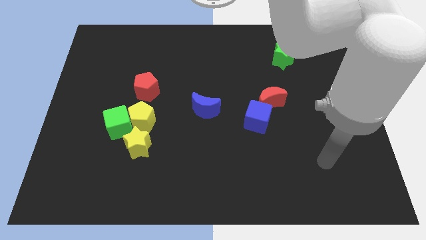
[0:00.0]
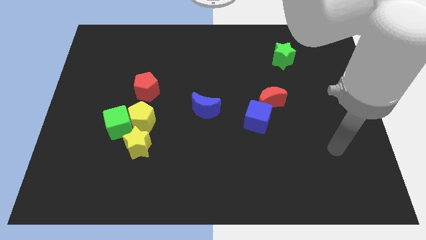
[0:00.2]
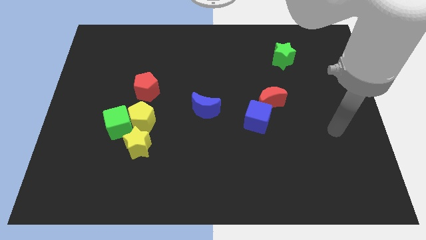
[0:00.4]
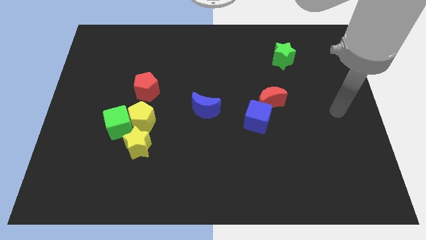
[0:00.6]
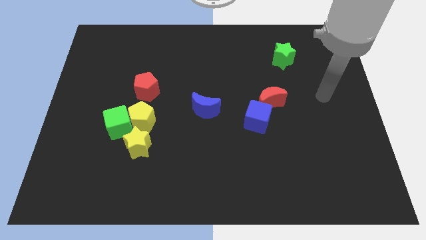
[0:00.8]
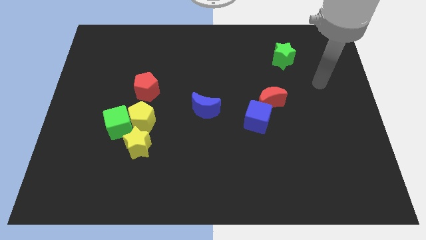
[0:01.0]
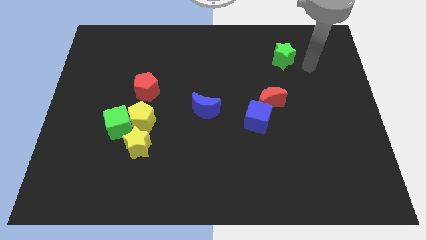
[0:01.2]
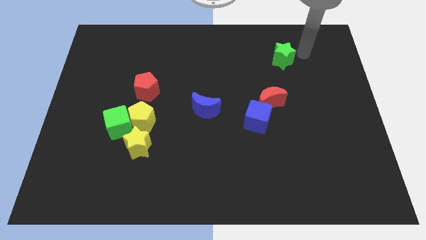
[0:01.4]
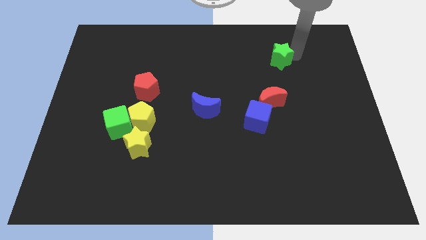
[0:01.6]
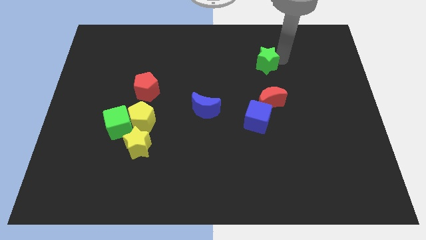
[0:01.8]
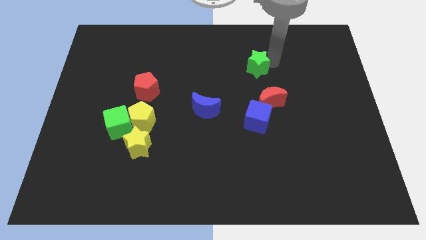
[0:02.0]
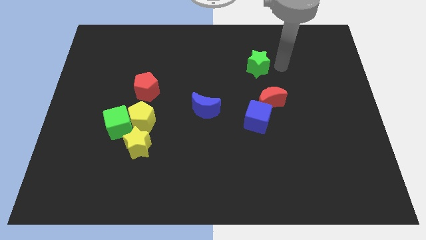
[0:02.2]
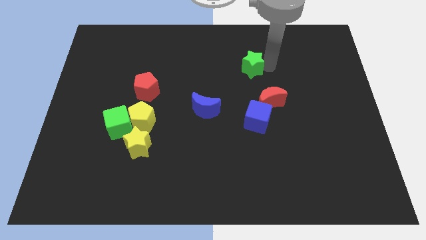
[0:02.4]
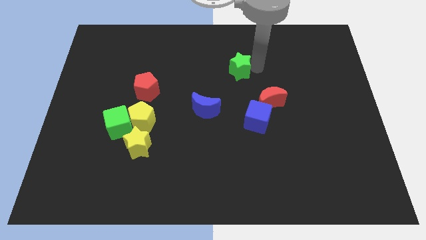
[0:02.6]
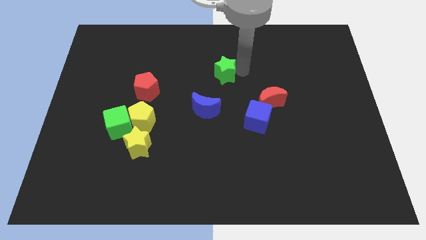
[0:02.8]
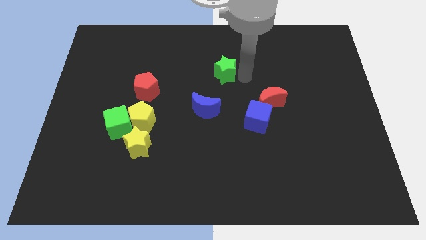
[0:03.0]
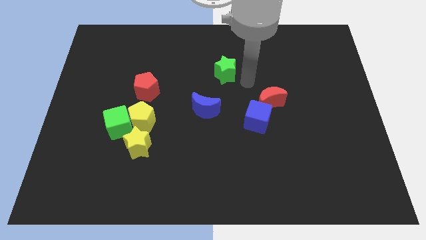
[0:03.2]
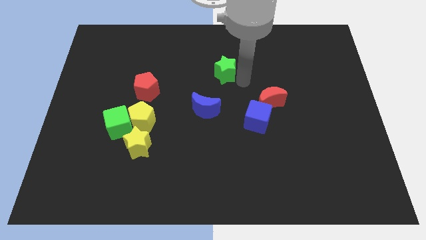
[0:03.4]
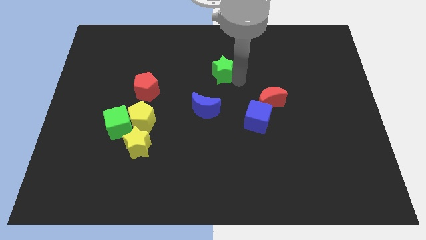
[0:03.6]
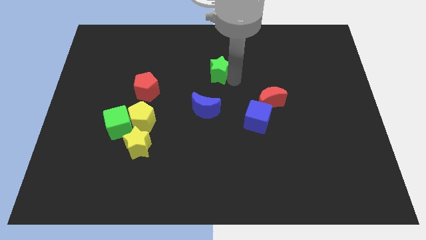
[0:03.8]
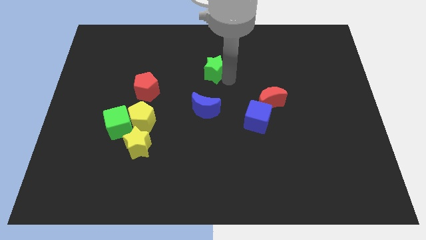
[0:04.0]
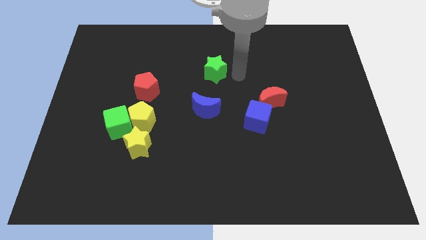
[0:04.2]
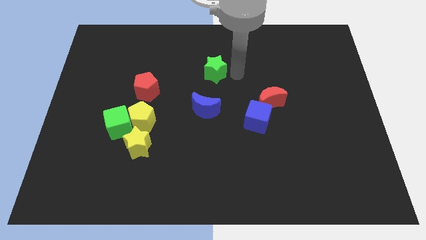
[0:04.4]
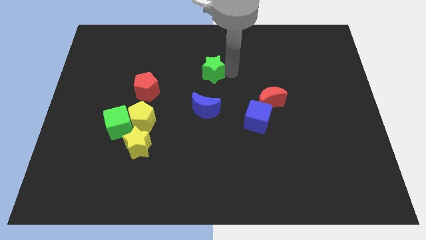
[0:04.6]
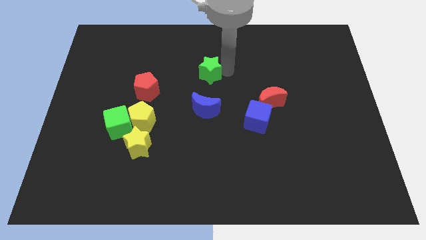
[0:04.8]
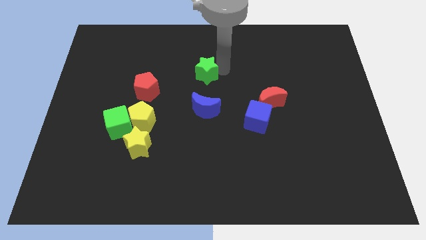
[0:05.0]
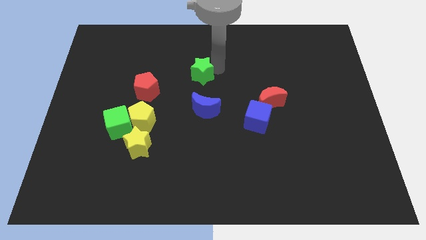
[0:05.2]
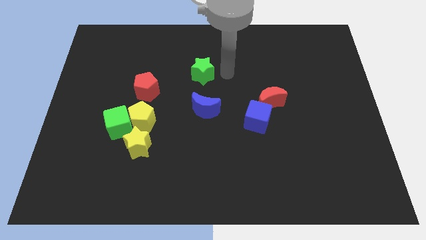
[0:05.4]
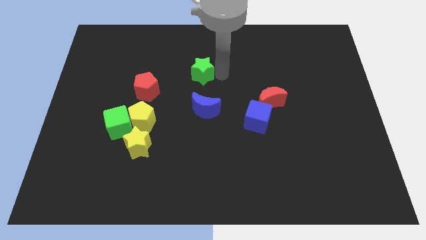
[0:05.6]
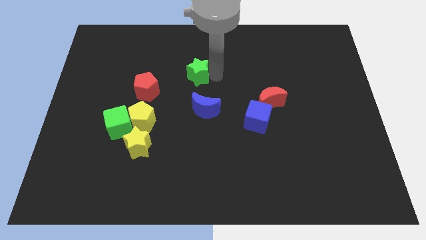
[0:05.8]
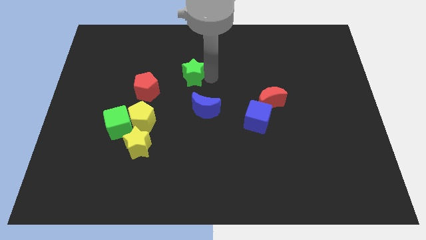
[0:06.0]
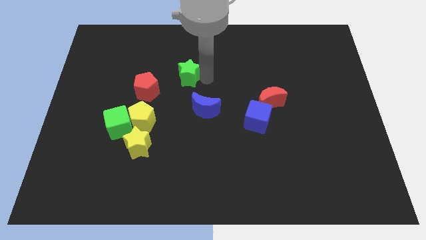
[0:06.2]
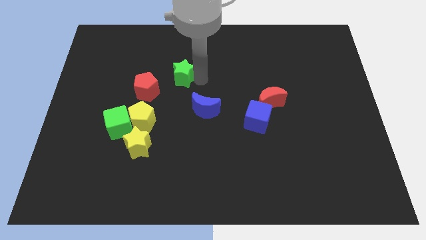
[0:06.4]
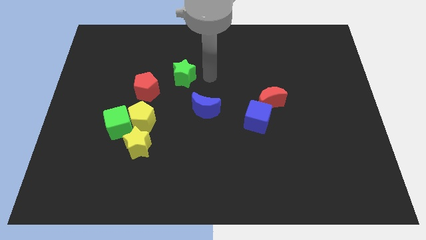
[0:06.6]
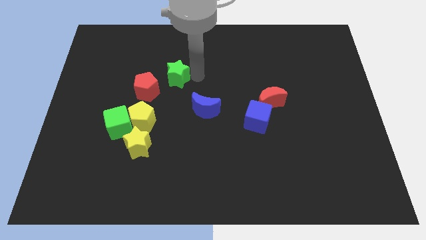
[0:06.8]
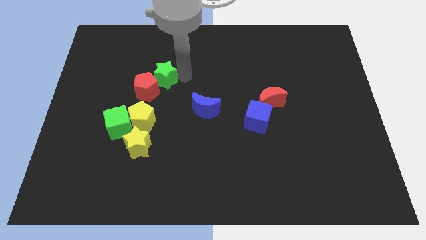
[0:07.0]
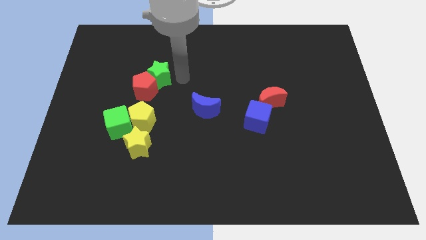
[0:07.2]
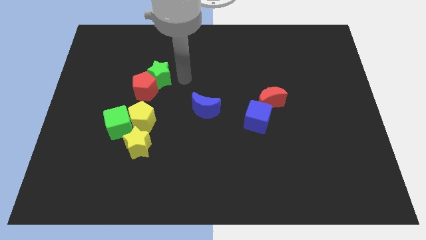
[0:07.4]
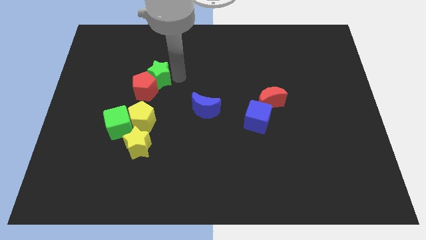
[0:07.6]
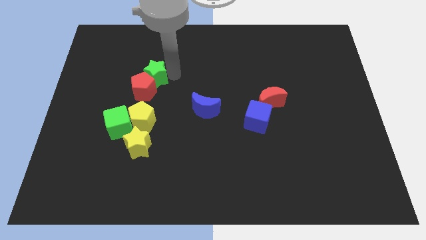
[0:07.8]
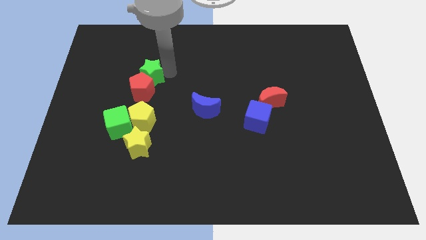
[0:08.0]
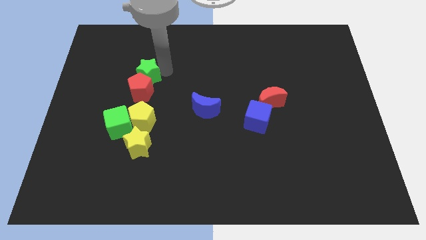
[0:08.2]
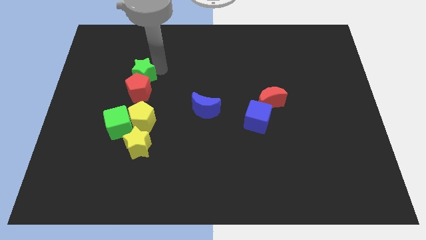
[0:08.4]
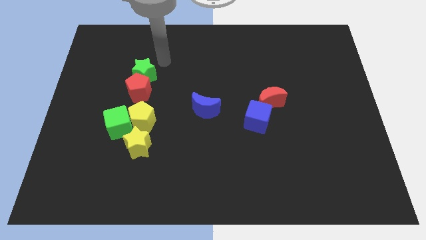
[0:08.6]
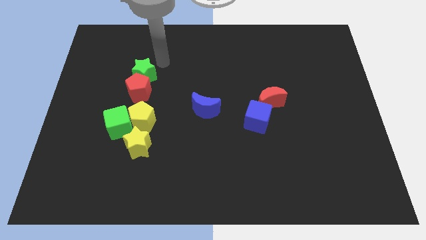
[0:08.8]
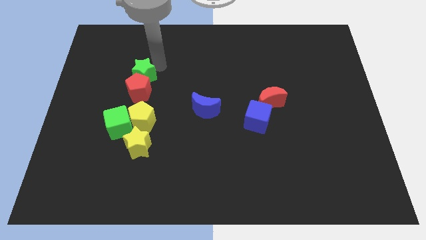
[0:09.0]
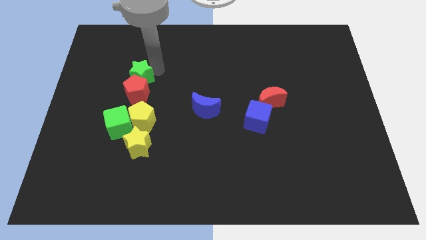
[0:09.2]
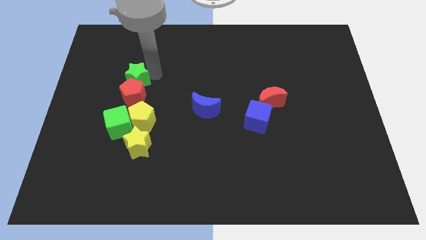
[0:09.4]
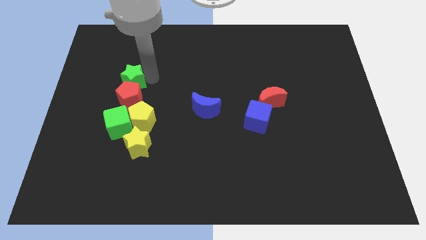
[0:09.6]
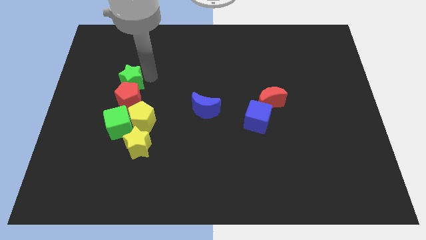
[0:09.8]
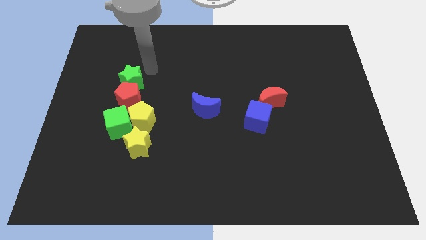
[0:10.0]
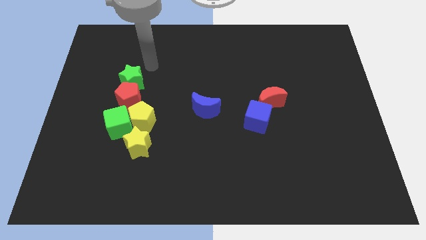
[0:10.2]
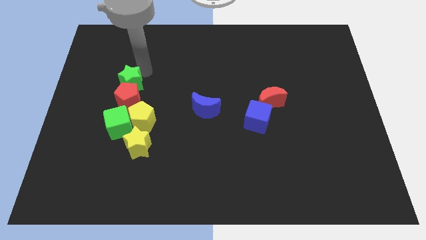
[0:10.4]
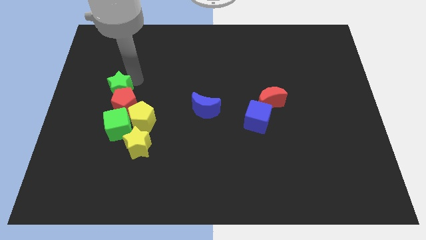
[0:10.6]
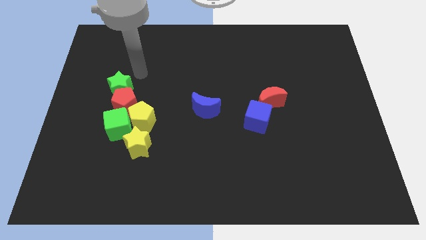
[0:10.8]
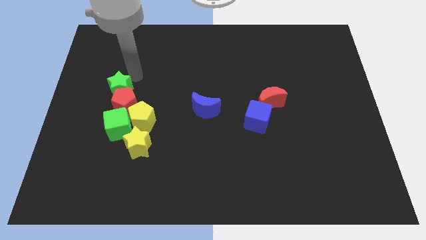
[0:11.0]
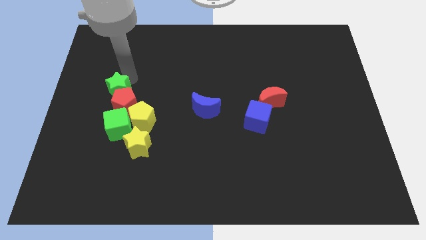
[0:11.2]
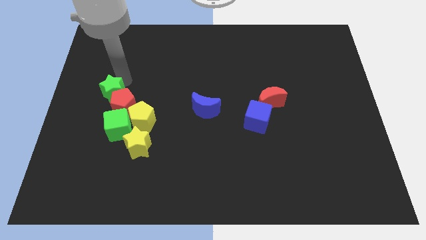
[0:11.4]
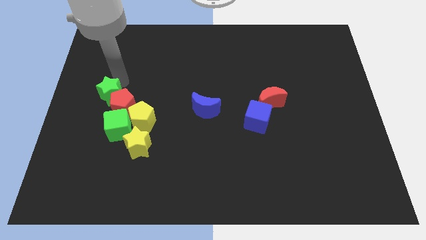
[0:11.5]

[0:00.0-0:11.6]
put the green star diagonally up and to the left of the green cube

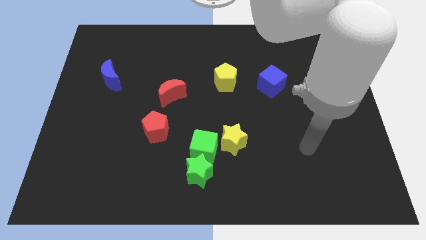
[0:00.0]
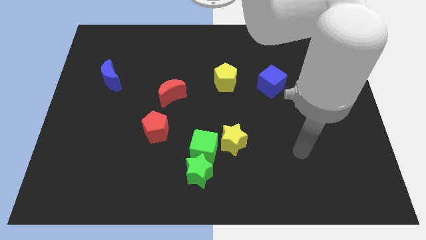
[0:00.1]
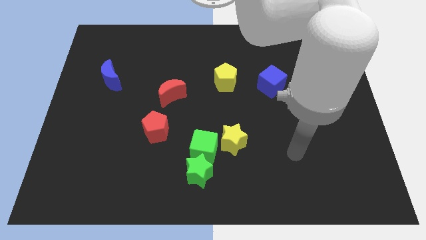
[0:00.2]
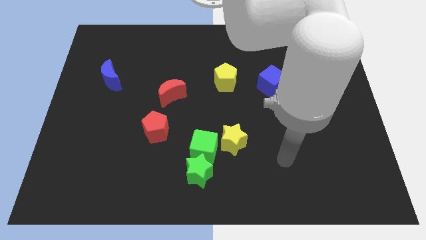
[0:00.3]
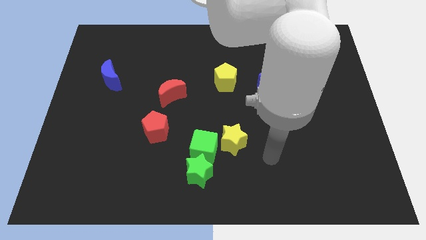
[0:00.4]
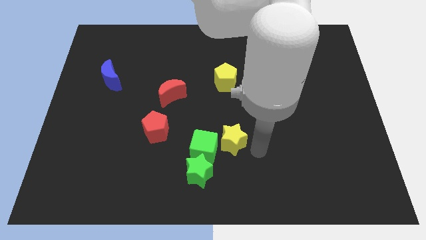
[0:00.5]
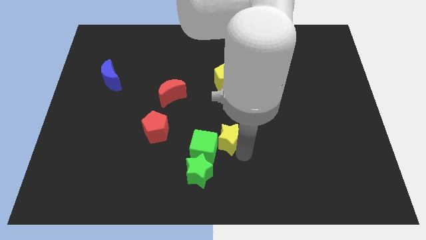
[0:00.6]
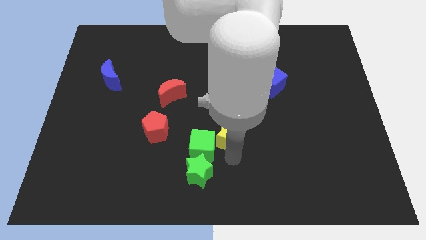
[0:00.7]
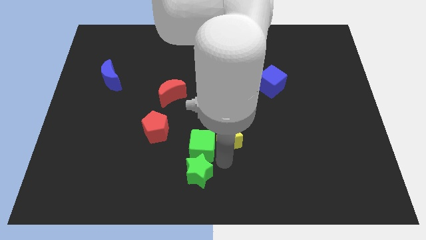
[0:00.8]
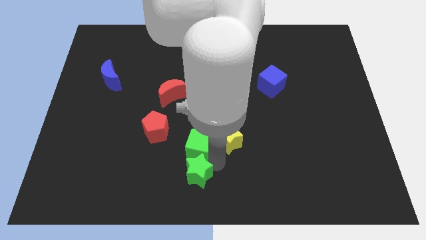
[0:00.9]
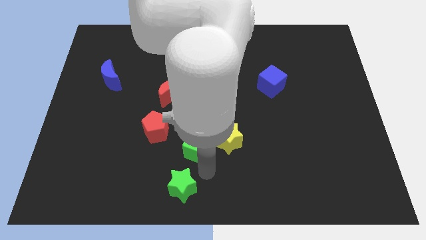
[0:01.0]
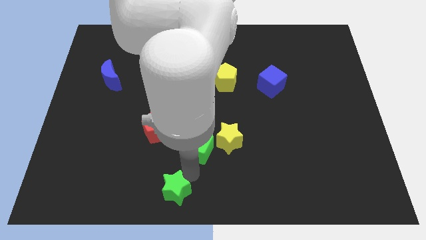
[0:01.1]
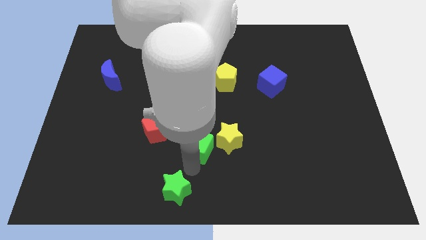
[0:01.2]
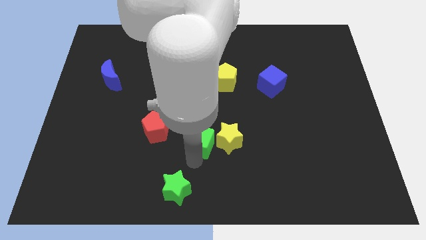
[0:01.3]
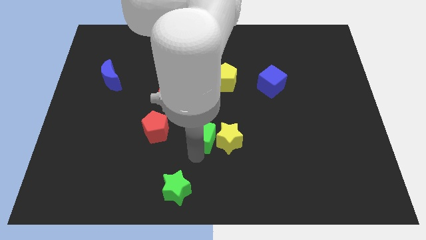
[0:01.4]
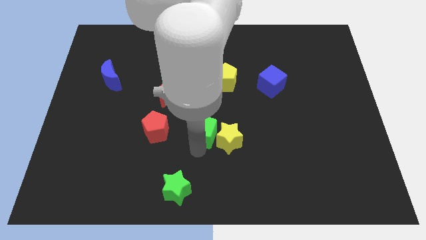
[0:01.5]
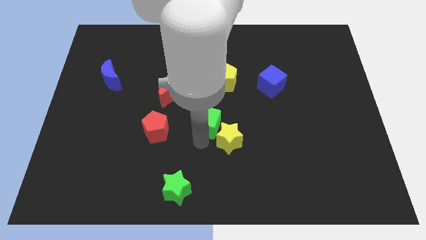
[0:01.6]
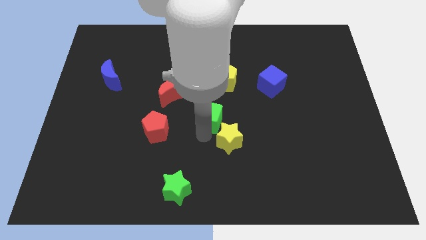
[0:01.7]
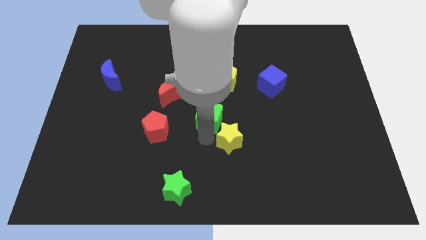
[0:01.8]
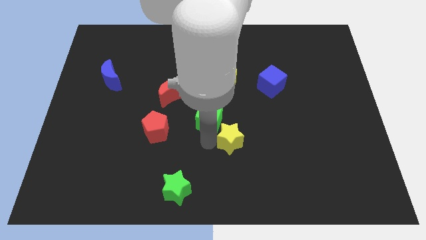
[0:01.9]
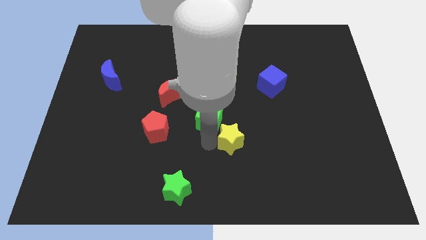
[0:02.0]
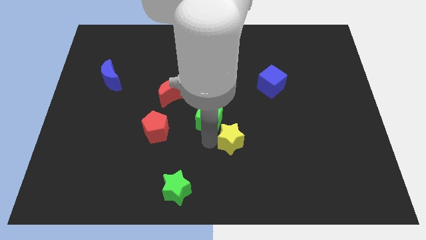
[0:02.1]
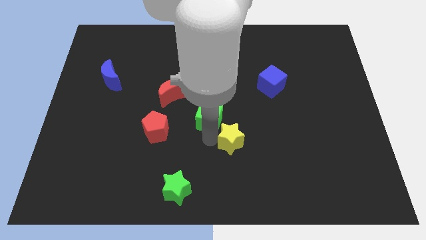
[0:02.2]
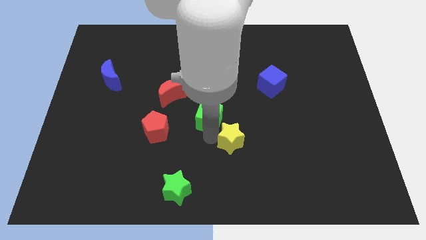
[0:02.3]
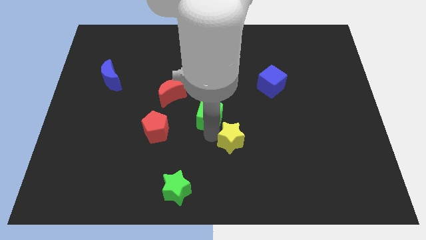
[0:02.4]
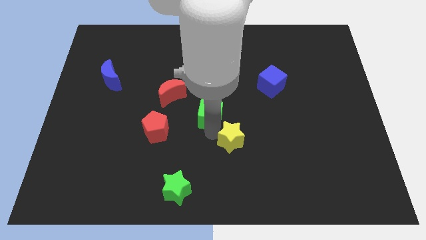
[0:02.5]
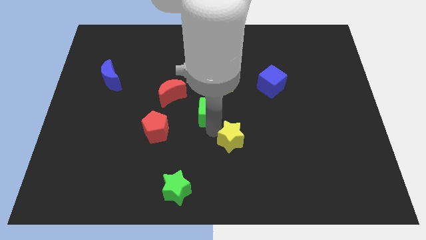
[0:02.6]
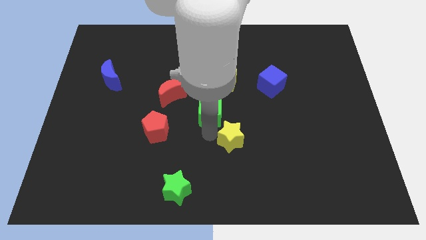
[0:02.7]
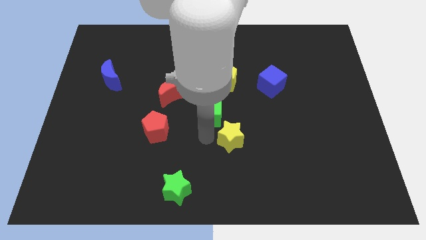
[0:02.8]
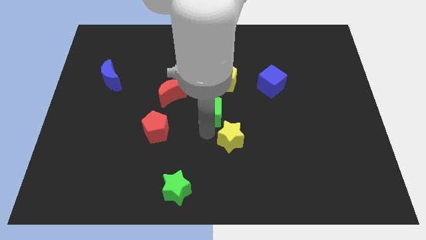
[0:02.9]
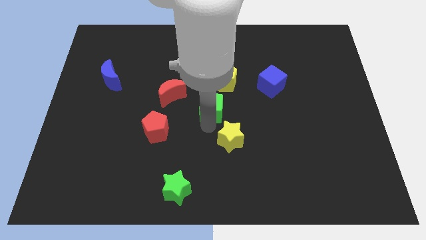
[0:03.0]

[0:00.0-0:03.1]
push the green cube to the right side of the red moon
